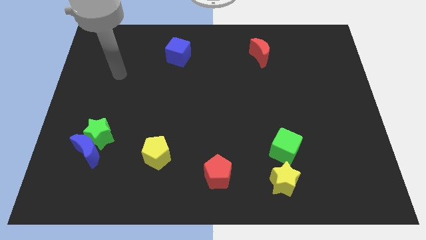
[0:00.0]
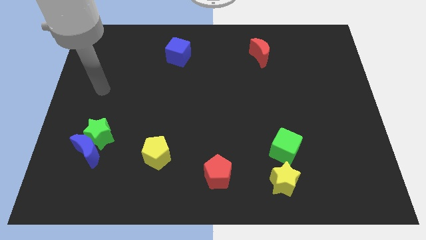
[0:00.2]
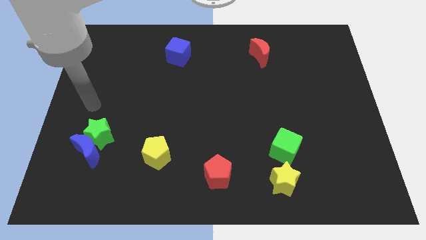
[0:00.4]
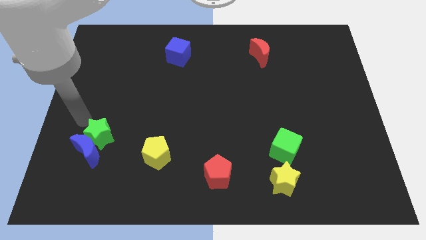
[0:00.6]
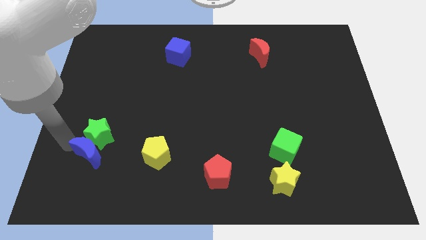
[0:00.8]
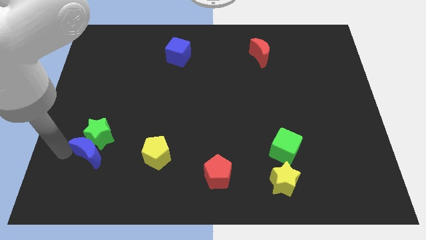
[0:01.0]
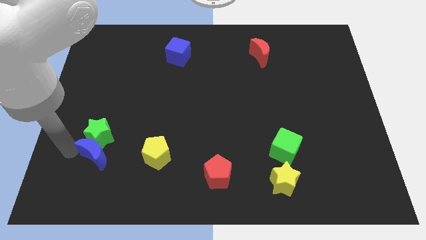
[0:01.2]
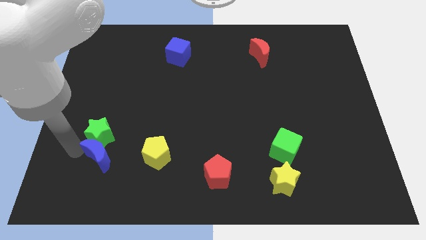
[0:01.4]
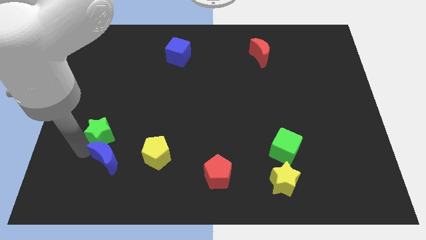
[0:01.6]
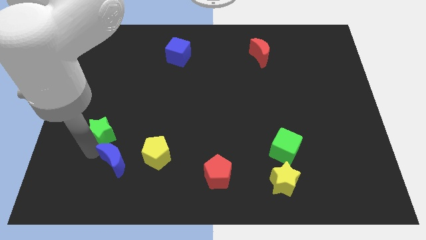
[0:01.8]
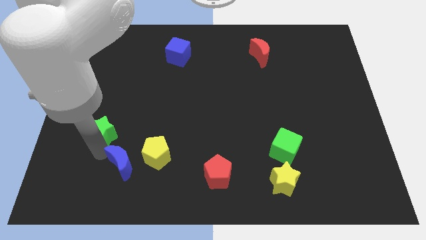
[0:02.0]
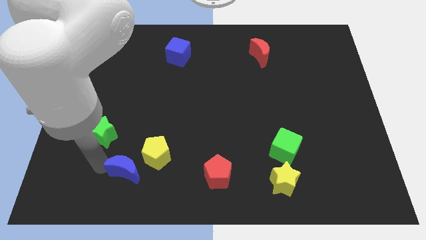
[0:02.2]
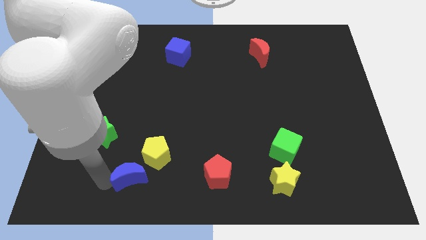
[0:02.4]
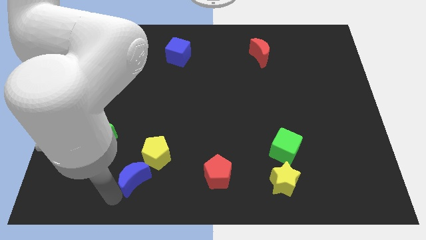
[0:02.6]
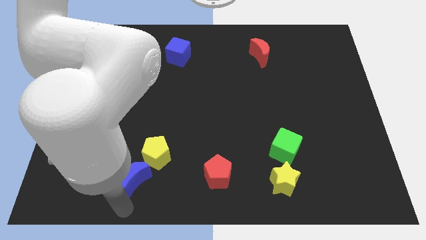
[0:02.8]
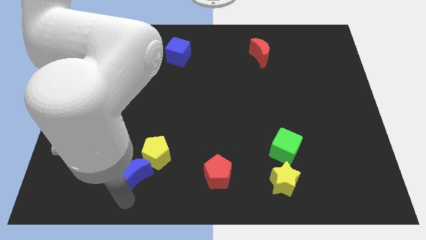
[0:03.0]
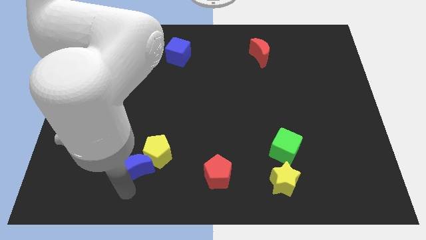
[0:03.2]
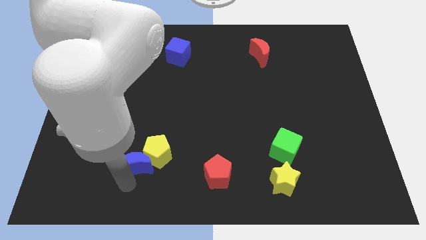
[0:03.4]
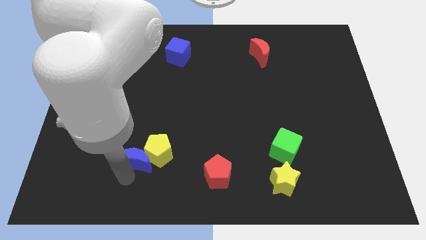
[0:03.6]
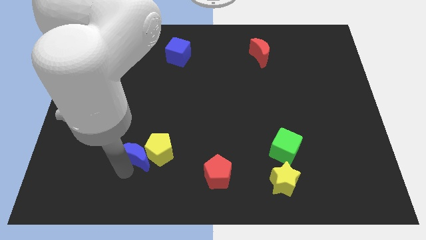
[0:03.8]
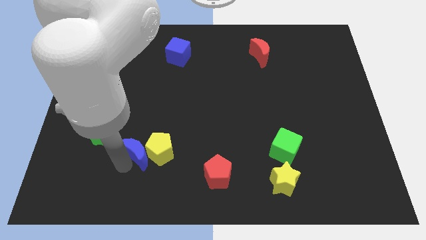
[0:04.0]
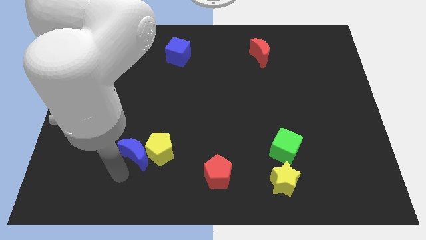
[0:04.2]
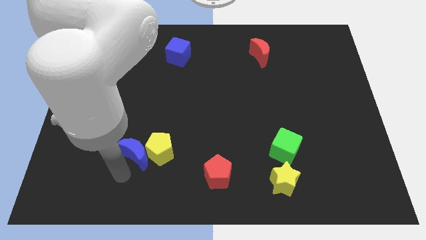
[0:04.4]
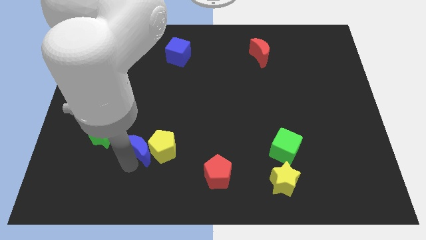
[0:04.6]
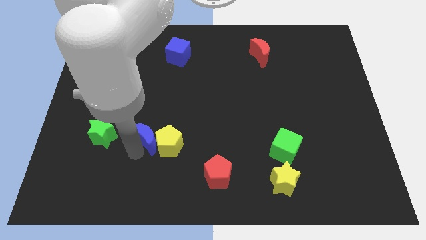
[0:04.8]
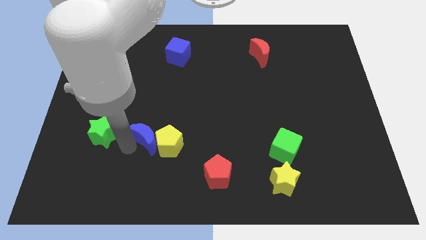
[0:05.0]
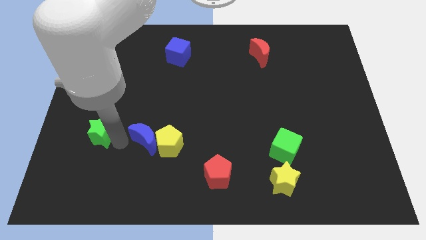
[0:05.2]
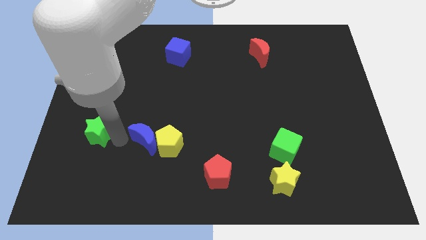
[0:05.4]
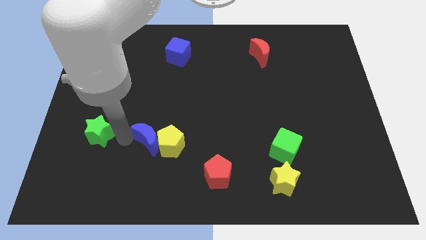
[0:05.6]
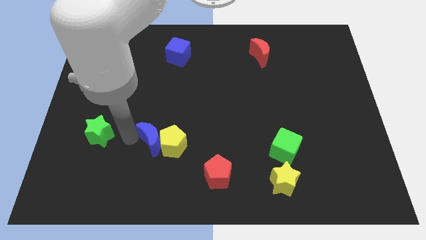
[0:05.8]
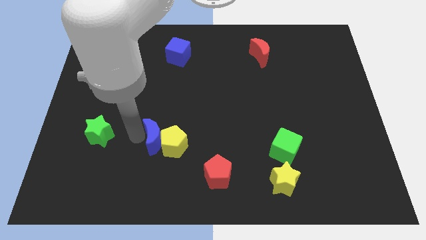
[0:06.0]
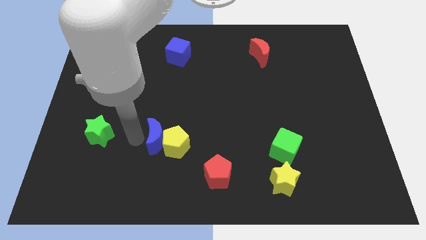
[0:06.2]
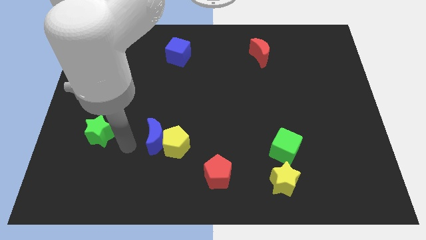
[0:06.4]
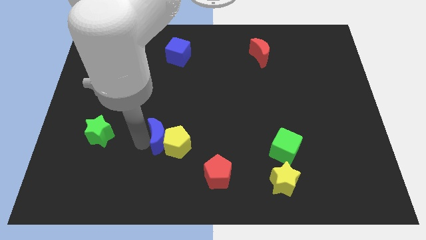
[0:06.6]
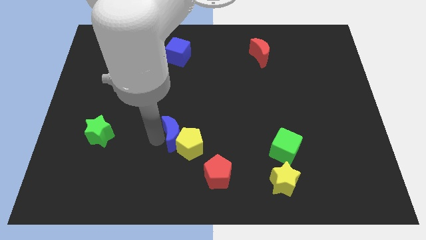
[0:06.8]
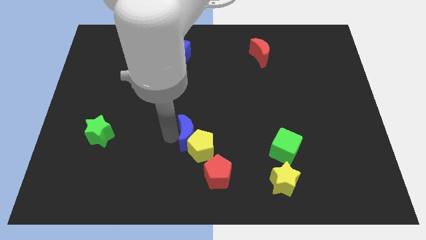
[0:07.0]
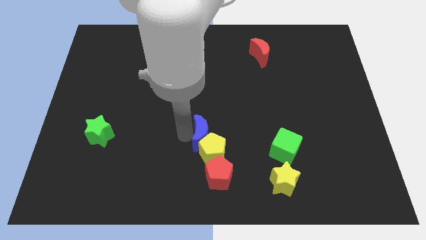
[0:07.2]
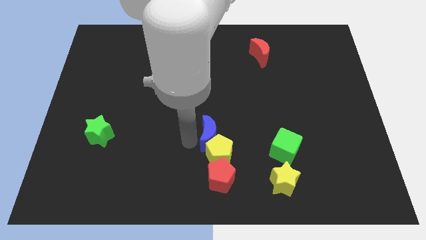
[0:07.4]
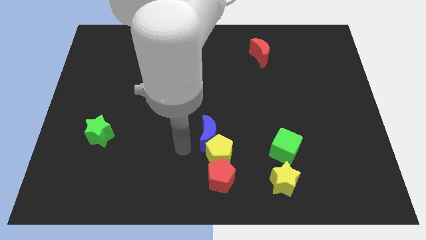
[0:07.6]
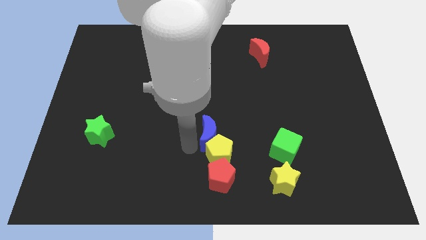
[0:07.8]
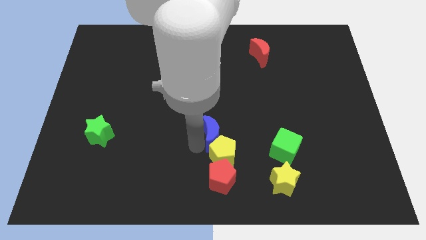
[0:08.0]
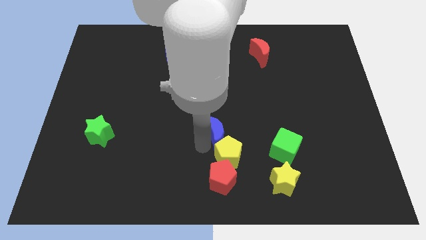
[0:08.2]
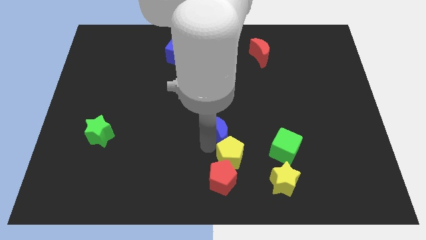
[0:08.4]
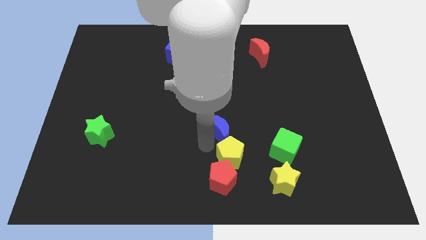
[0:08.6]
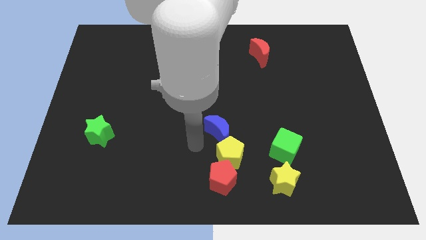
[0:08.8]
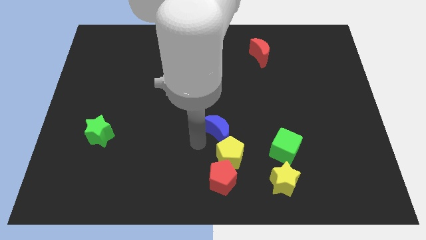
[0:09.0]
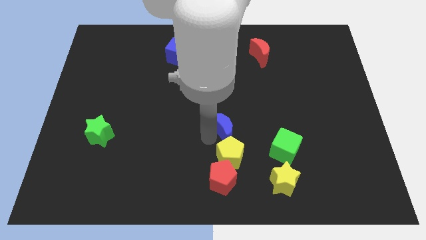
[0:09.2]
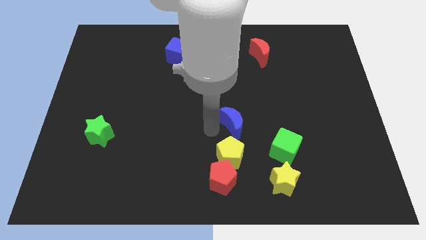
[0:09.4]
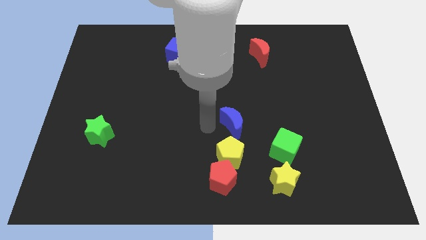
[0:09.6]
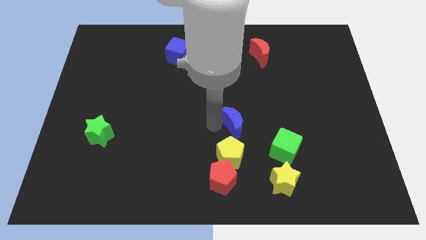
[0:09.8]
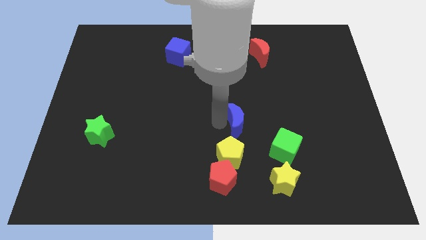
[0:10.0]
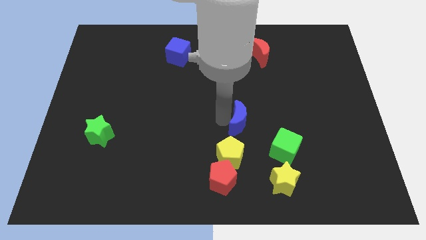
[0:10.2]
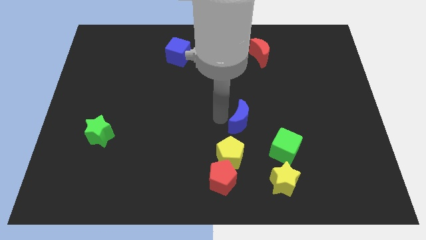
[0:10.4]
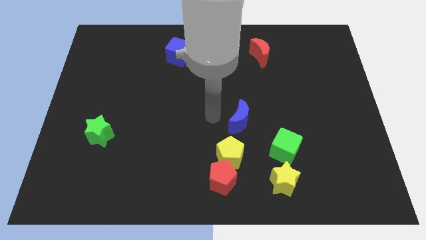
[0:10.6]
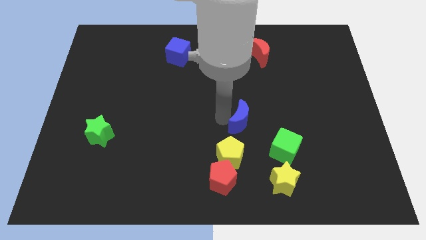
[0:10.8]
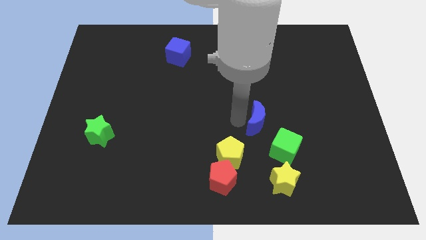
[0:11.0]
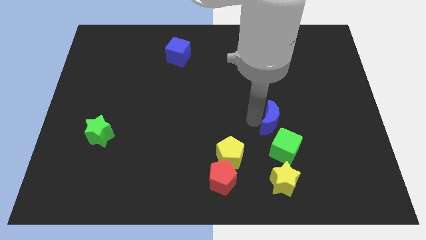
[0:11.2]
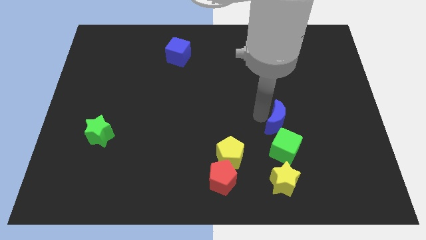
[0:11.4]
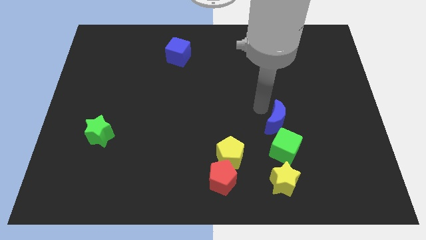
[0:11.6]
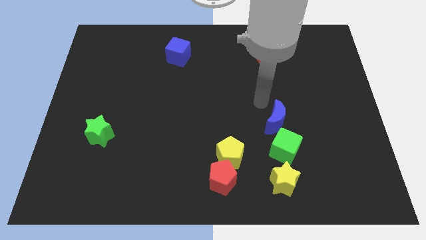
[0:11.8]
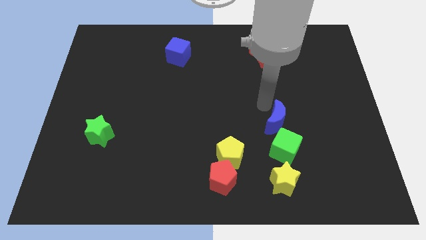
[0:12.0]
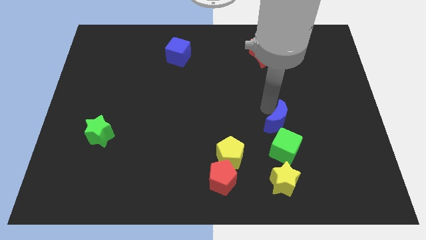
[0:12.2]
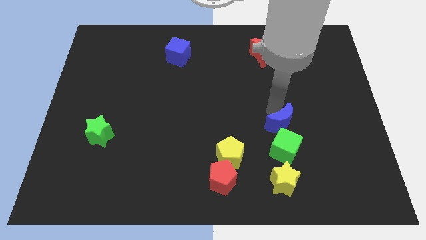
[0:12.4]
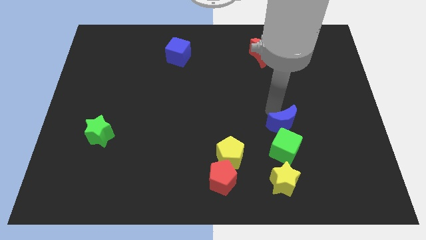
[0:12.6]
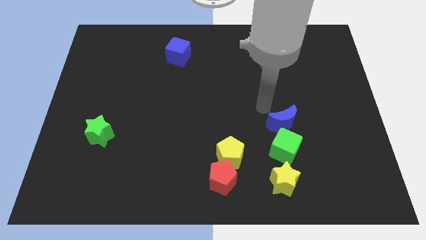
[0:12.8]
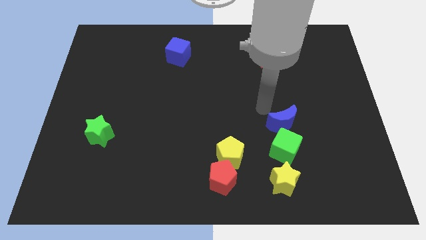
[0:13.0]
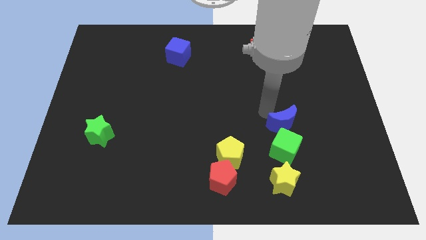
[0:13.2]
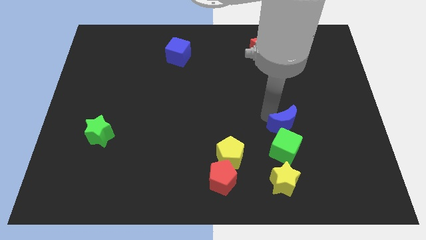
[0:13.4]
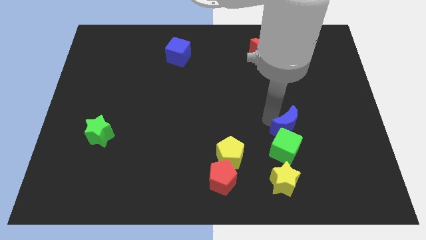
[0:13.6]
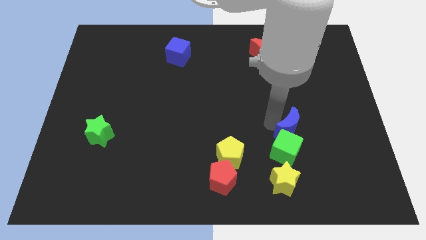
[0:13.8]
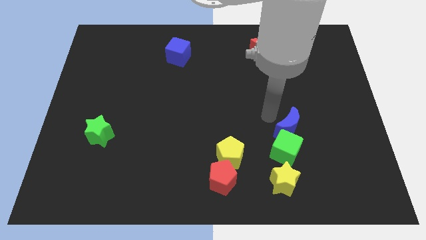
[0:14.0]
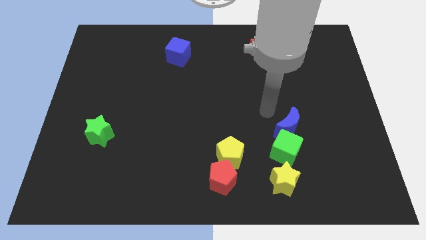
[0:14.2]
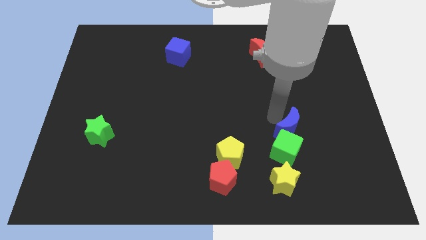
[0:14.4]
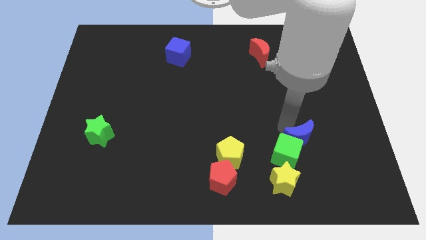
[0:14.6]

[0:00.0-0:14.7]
push the blue moon just right of the green cube
